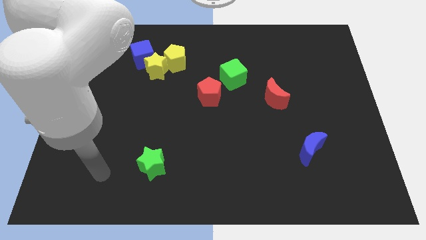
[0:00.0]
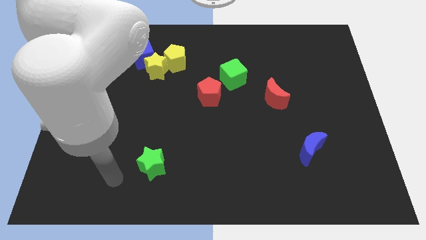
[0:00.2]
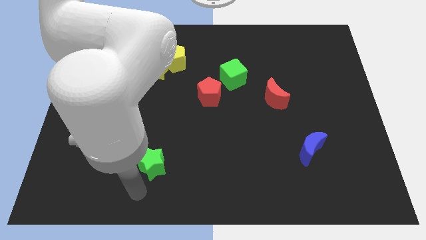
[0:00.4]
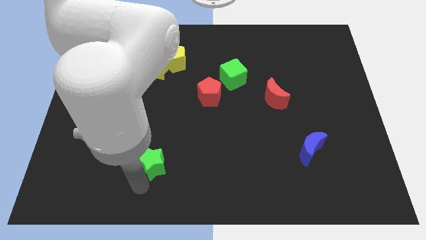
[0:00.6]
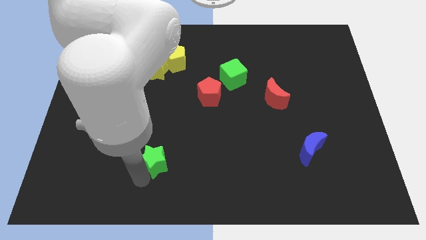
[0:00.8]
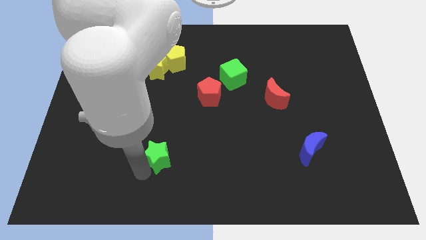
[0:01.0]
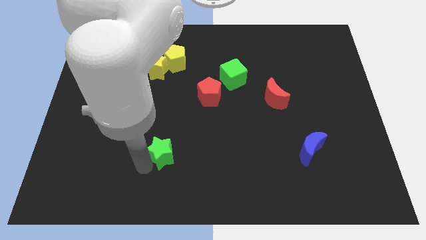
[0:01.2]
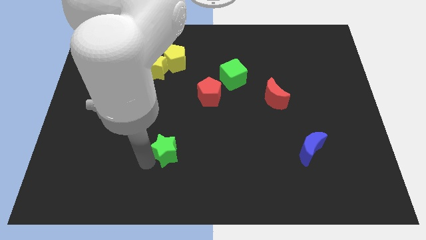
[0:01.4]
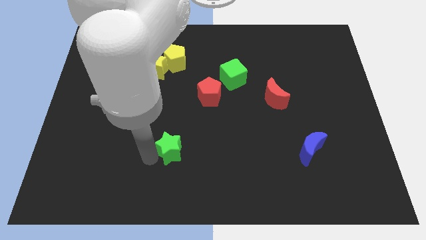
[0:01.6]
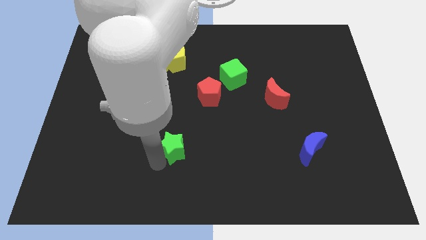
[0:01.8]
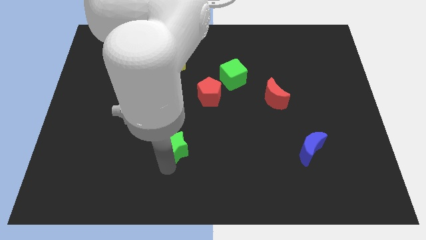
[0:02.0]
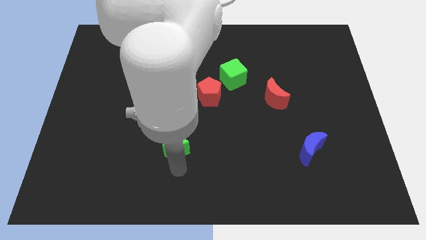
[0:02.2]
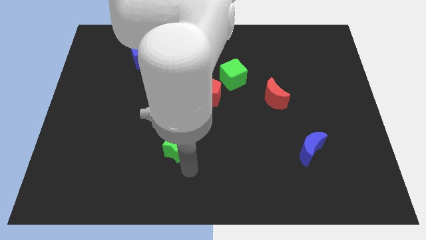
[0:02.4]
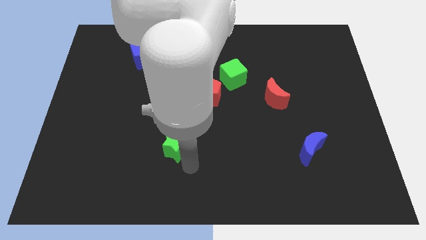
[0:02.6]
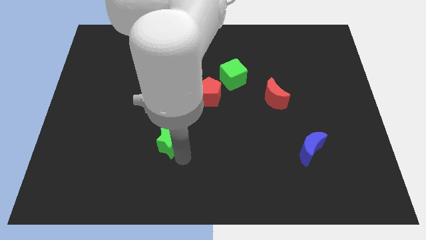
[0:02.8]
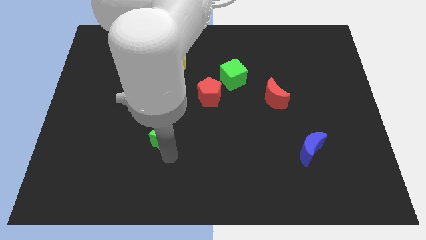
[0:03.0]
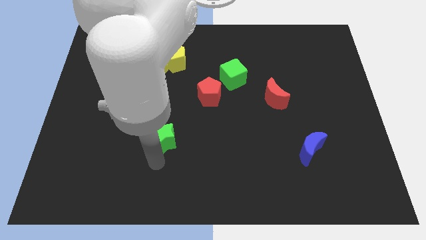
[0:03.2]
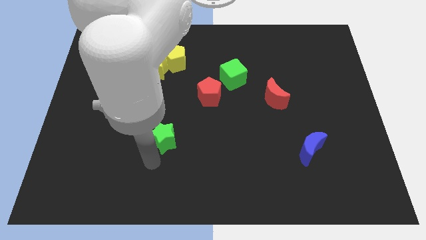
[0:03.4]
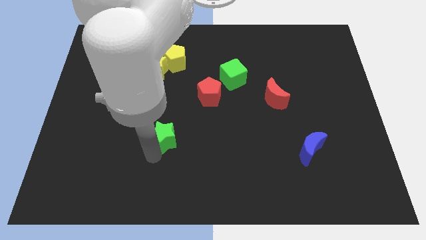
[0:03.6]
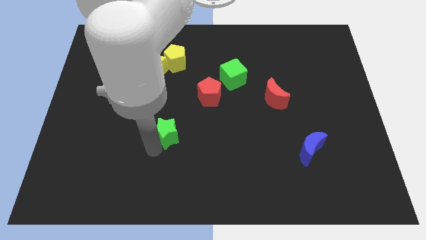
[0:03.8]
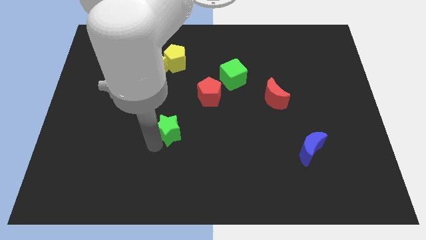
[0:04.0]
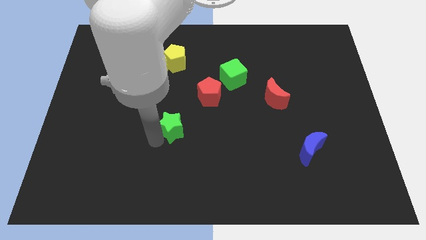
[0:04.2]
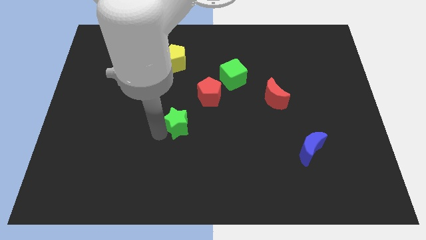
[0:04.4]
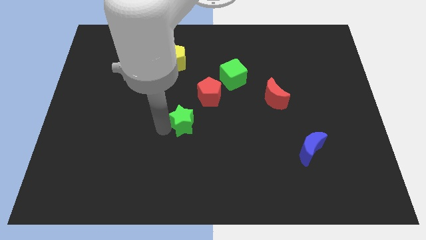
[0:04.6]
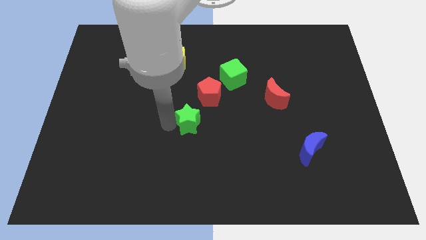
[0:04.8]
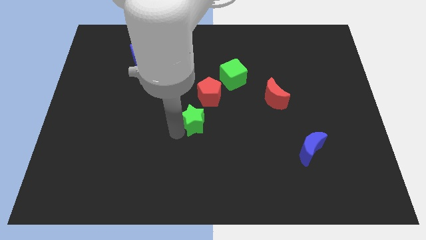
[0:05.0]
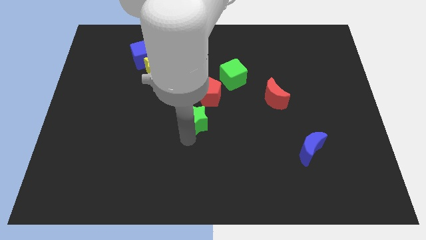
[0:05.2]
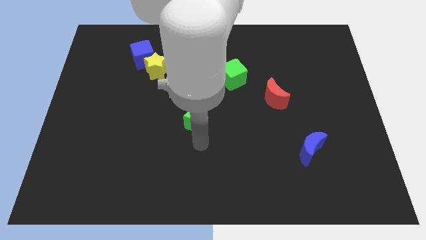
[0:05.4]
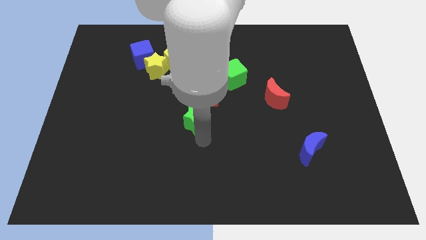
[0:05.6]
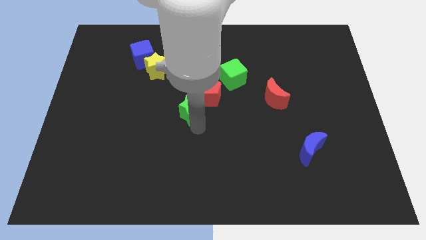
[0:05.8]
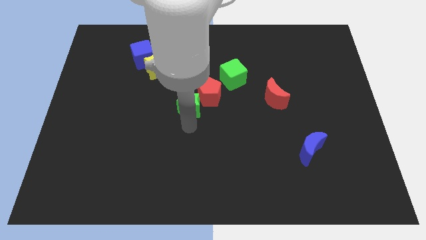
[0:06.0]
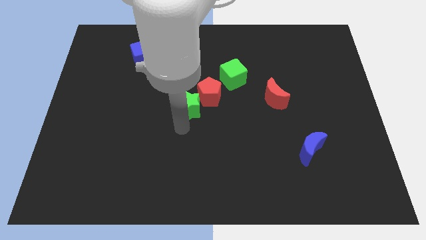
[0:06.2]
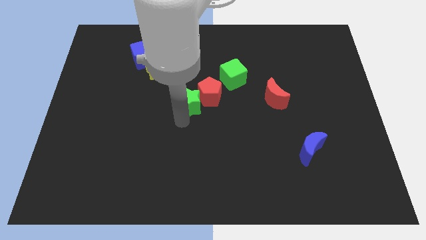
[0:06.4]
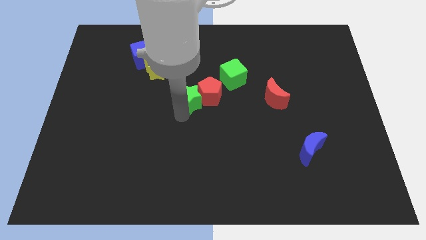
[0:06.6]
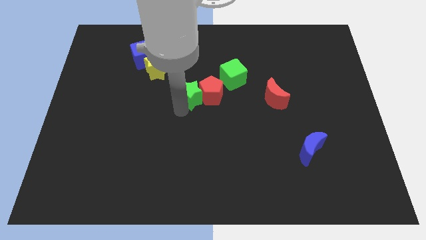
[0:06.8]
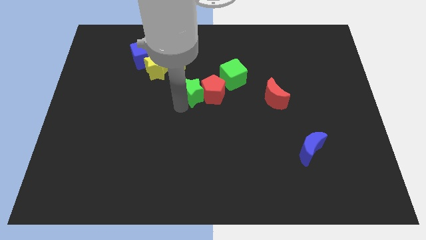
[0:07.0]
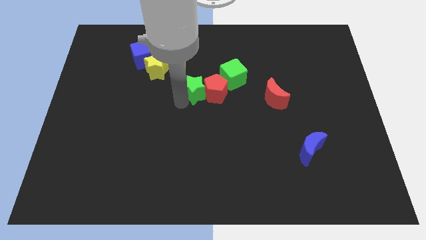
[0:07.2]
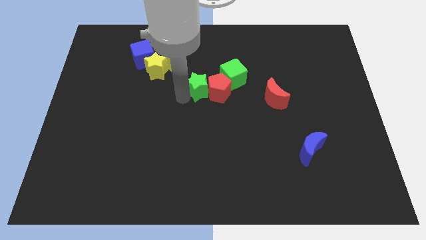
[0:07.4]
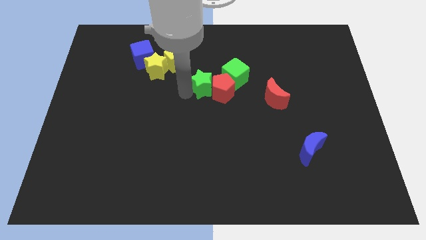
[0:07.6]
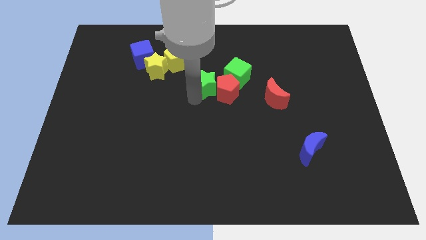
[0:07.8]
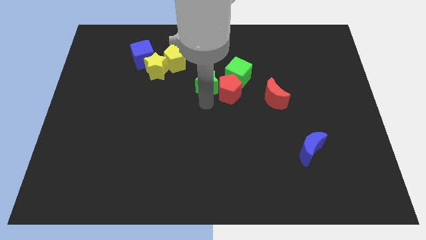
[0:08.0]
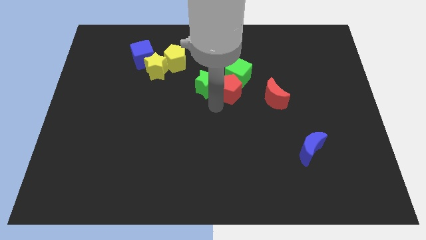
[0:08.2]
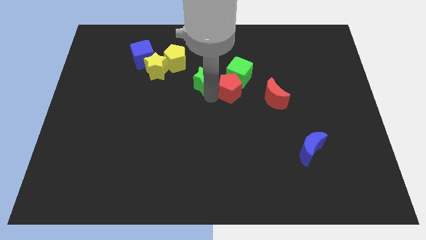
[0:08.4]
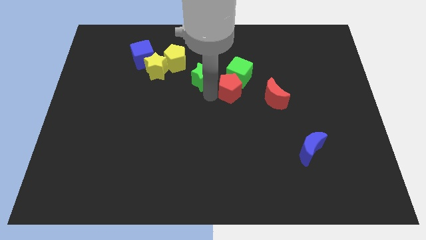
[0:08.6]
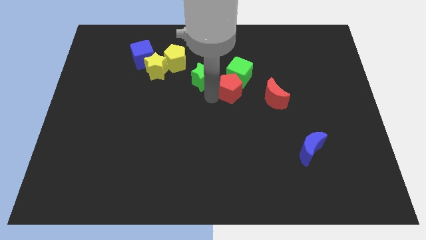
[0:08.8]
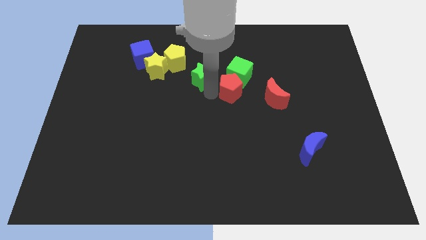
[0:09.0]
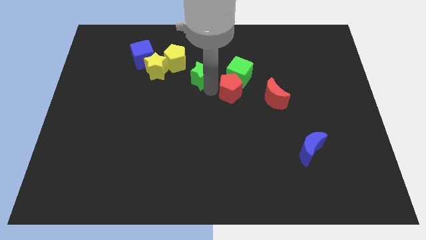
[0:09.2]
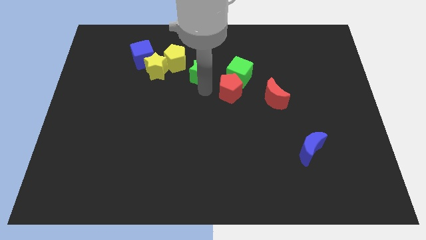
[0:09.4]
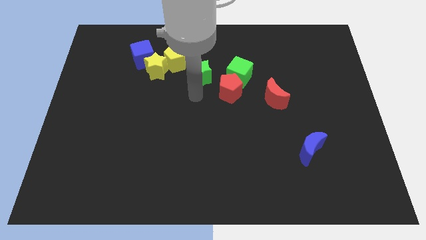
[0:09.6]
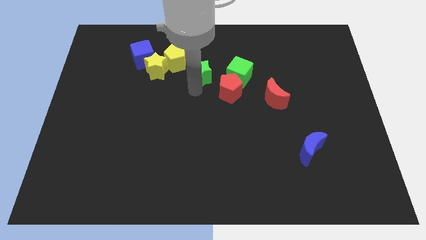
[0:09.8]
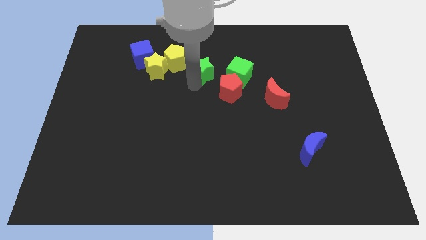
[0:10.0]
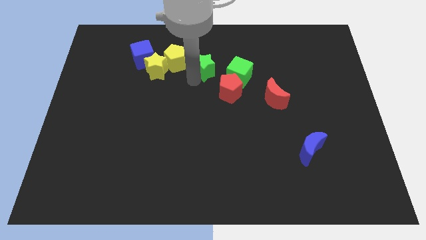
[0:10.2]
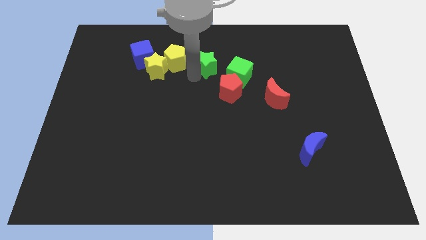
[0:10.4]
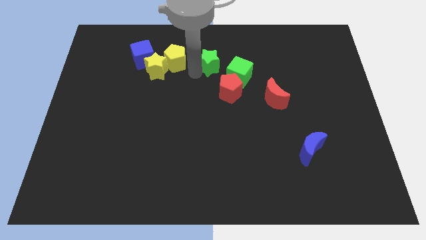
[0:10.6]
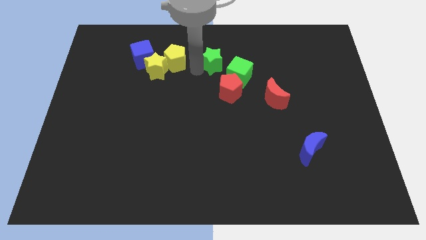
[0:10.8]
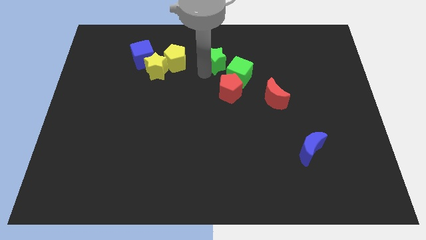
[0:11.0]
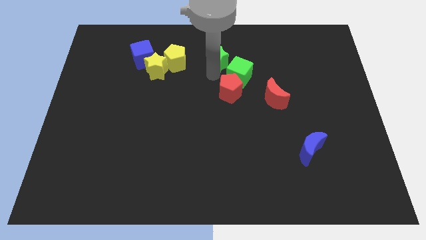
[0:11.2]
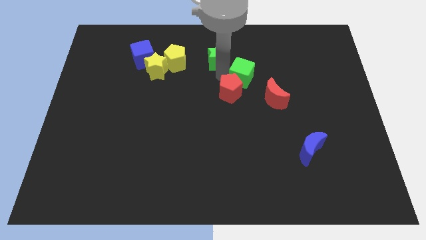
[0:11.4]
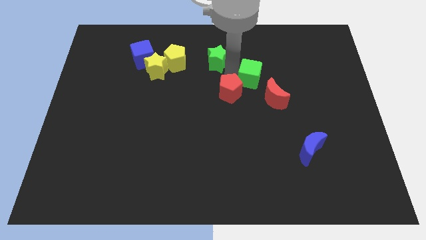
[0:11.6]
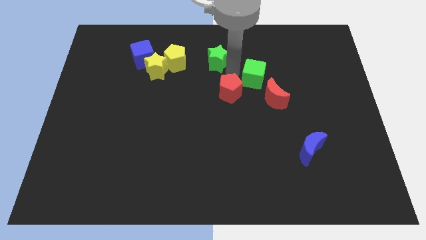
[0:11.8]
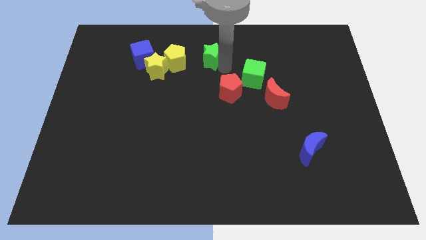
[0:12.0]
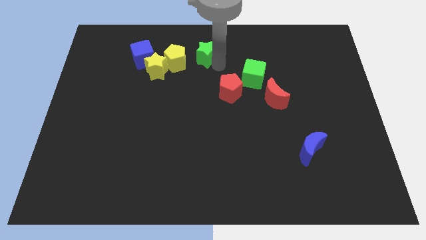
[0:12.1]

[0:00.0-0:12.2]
move the green star to the top side
